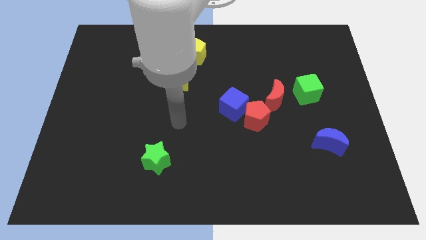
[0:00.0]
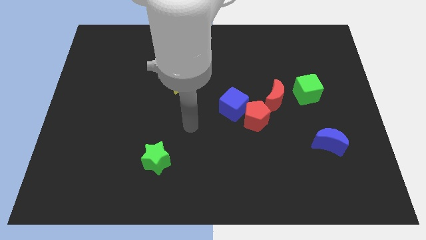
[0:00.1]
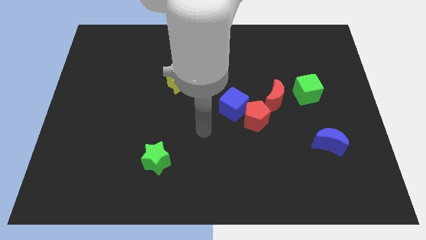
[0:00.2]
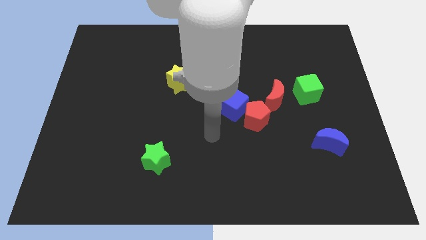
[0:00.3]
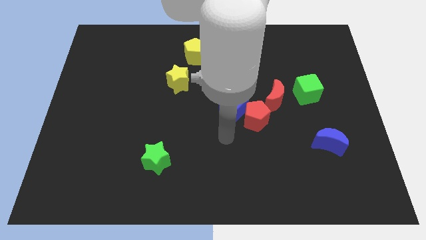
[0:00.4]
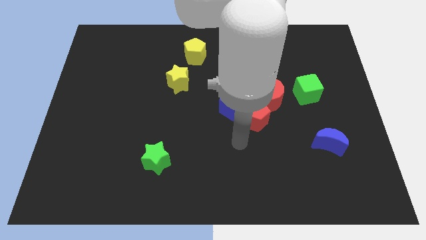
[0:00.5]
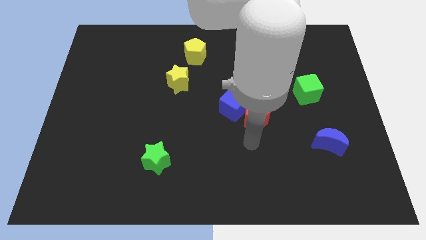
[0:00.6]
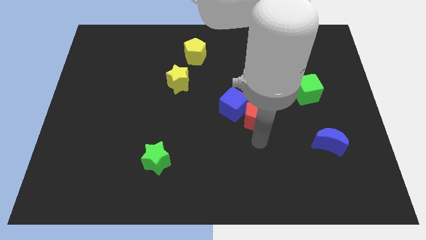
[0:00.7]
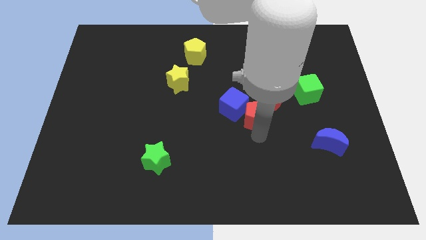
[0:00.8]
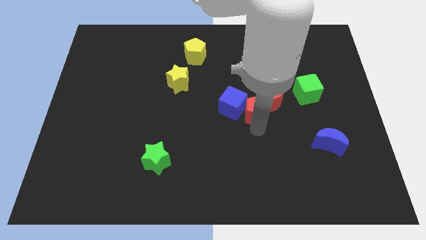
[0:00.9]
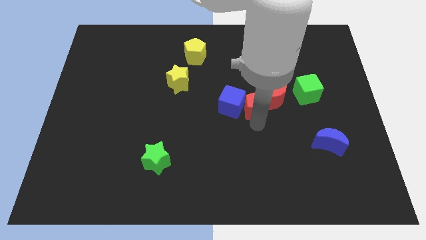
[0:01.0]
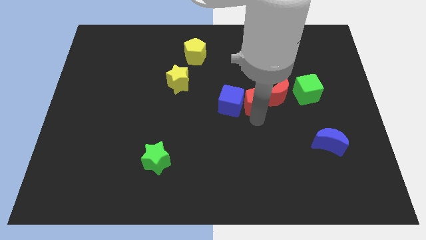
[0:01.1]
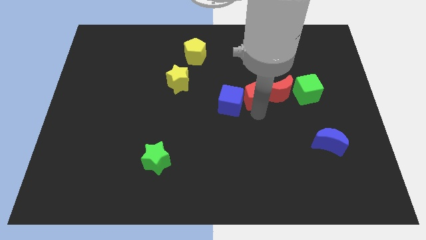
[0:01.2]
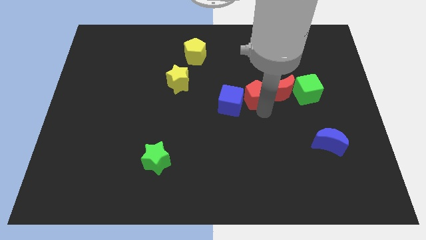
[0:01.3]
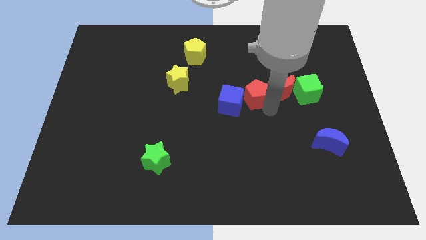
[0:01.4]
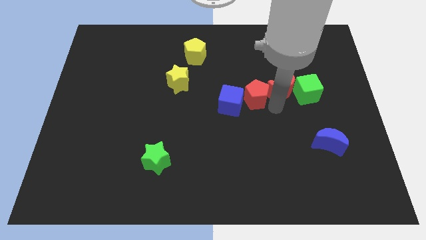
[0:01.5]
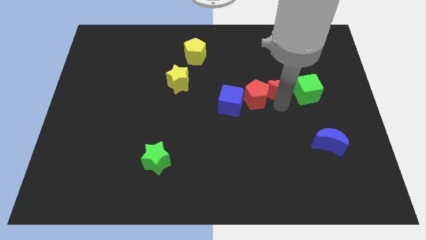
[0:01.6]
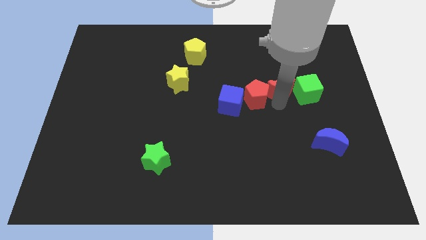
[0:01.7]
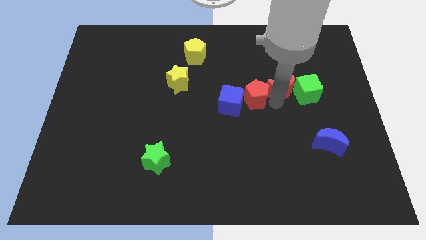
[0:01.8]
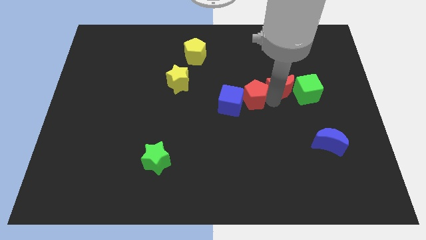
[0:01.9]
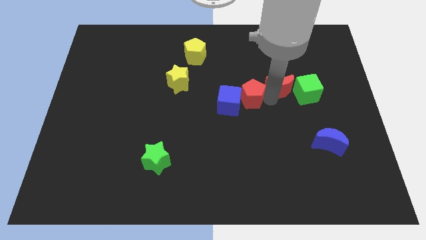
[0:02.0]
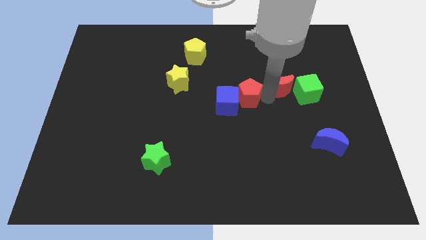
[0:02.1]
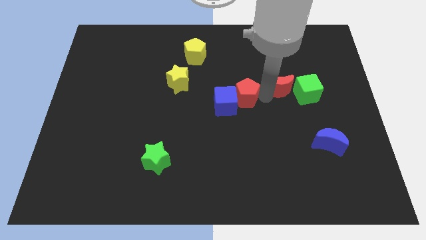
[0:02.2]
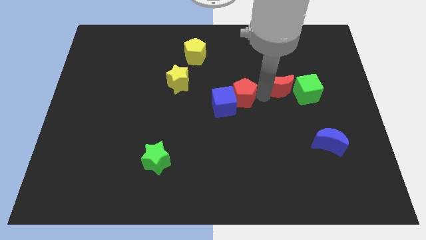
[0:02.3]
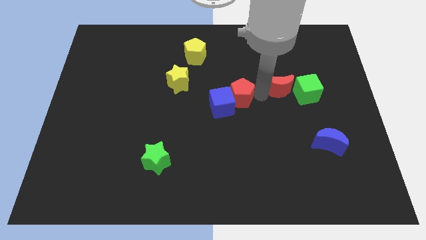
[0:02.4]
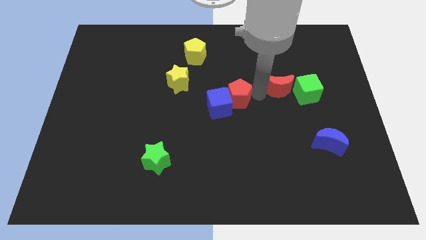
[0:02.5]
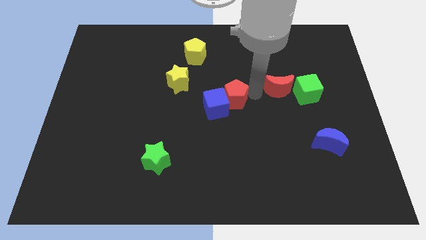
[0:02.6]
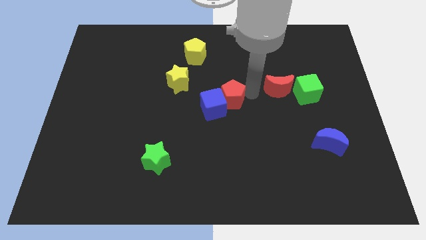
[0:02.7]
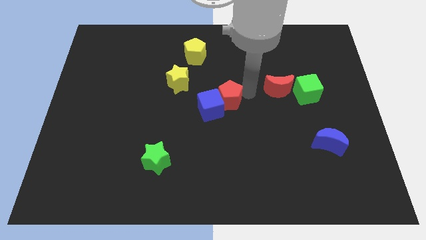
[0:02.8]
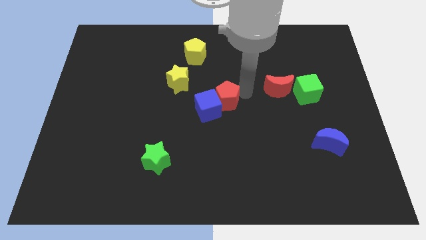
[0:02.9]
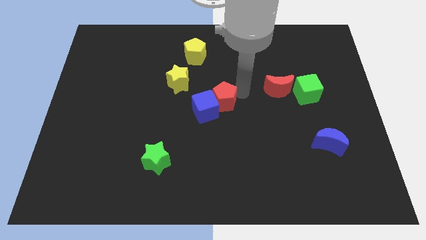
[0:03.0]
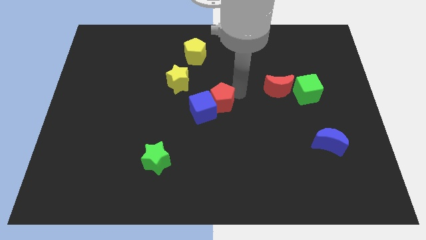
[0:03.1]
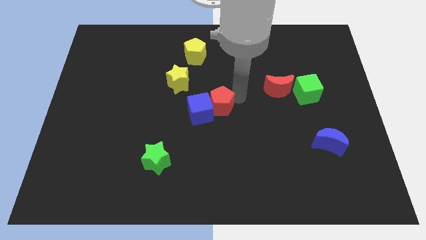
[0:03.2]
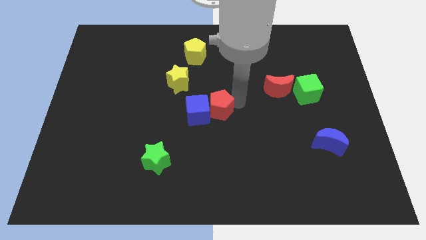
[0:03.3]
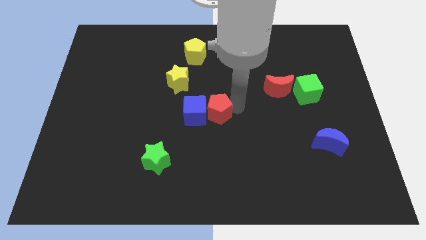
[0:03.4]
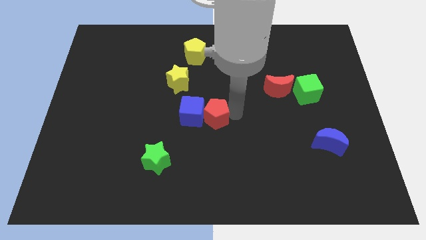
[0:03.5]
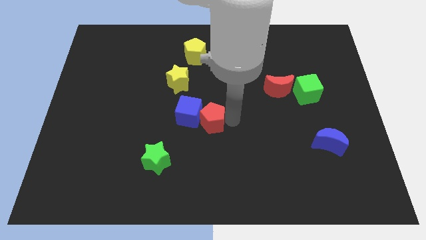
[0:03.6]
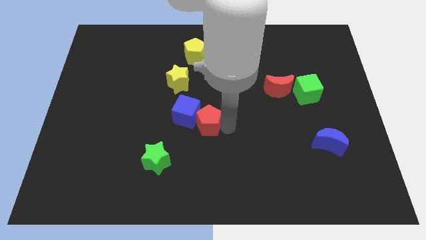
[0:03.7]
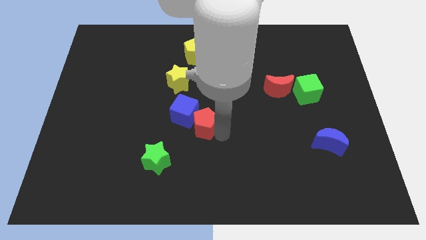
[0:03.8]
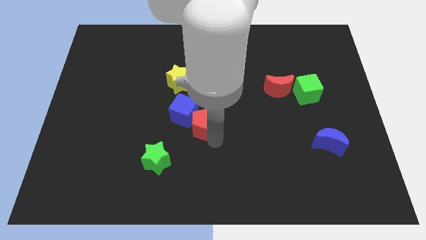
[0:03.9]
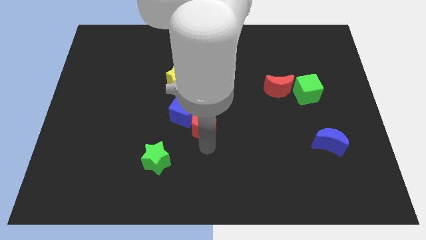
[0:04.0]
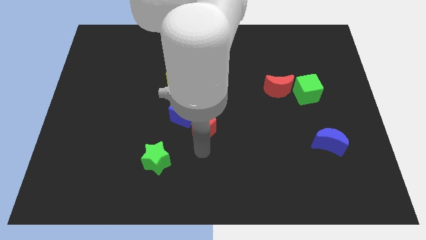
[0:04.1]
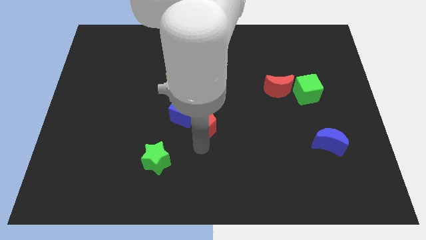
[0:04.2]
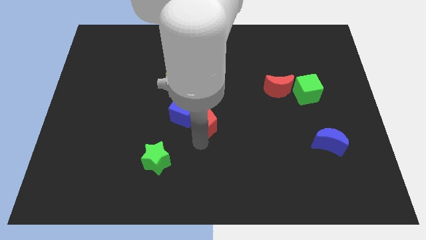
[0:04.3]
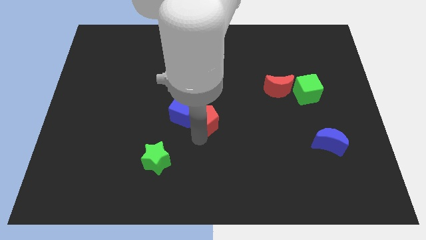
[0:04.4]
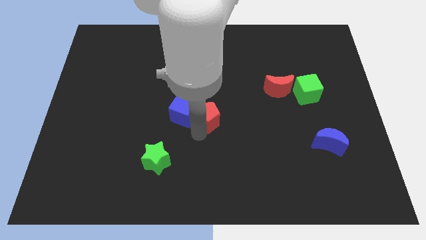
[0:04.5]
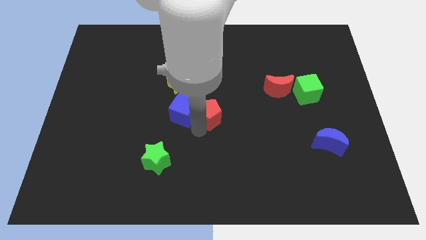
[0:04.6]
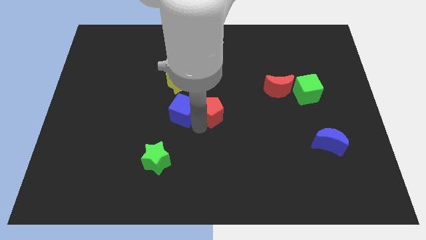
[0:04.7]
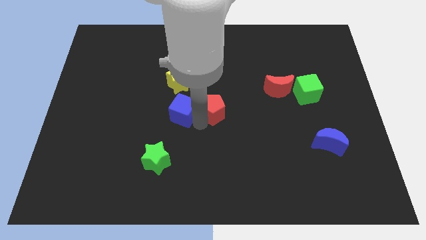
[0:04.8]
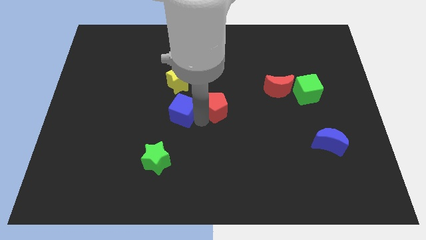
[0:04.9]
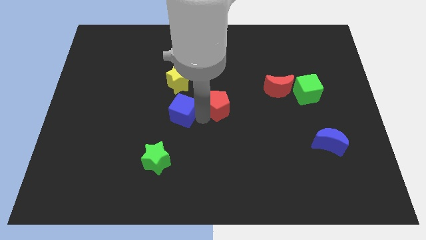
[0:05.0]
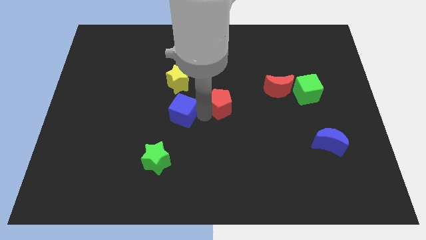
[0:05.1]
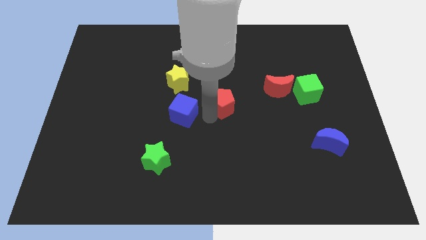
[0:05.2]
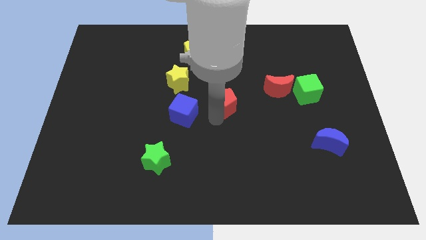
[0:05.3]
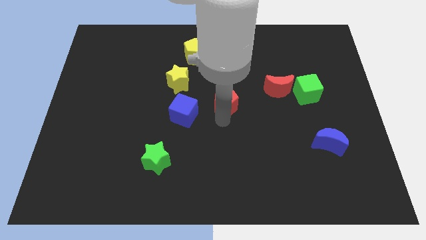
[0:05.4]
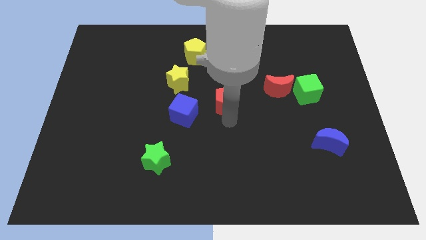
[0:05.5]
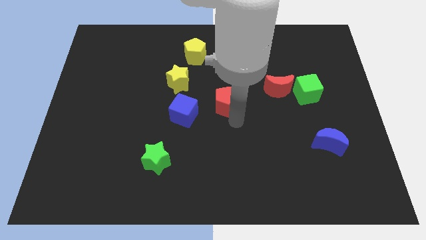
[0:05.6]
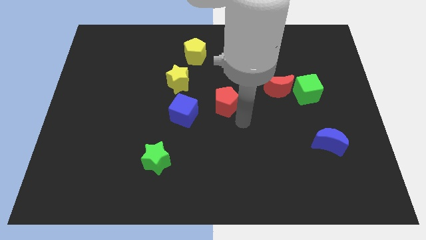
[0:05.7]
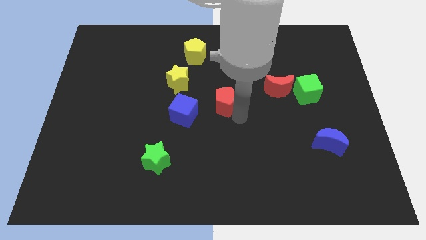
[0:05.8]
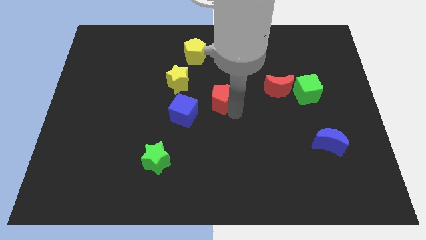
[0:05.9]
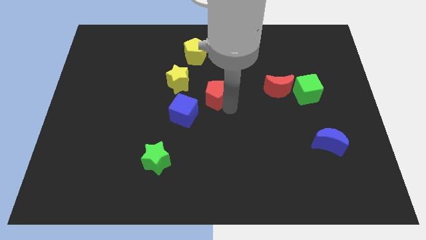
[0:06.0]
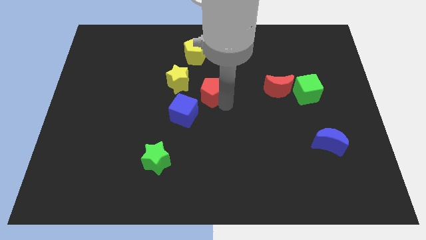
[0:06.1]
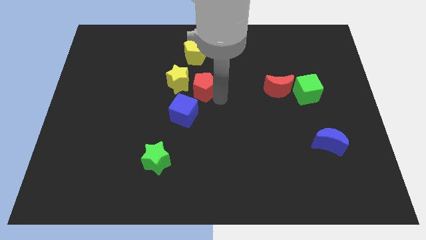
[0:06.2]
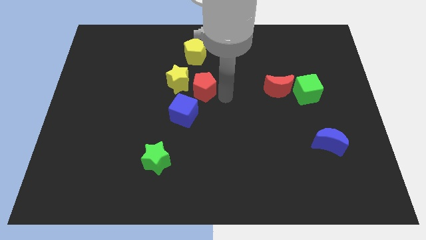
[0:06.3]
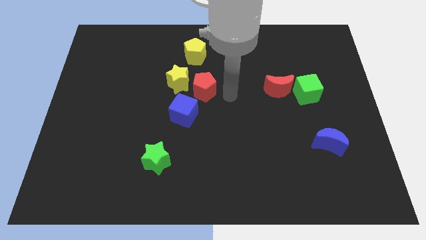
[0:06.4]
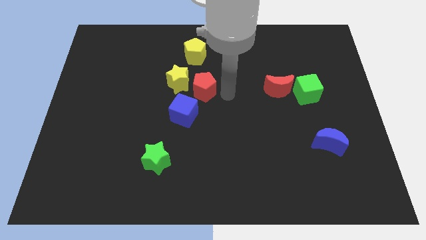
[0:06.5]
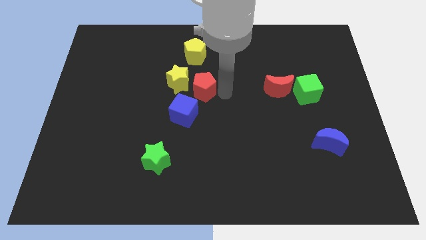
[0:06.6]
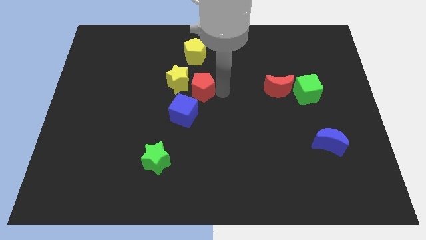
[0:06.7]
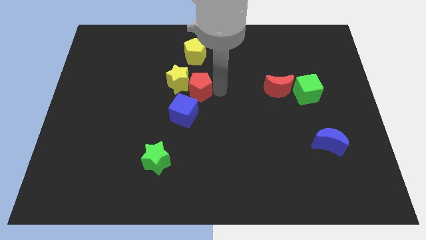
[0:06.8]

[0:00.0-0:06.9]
push the red pentagon close to the yellow star

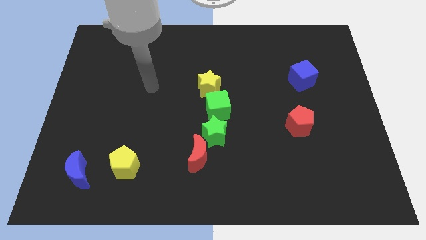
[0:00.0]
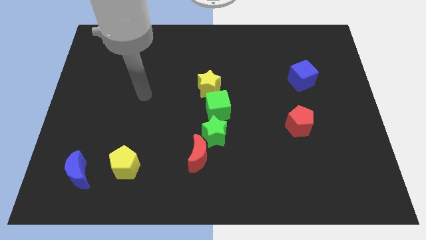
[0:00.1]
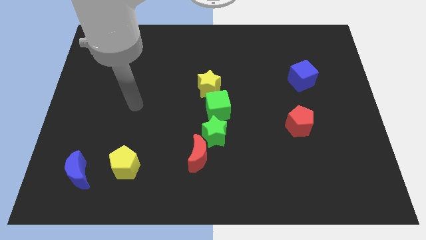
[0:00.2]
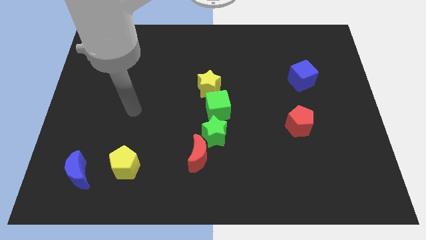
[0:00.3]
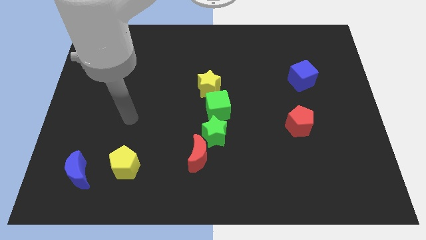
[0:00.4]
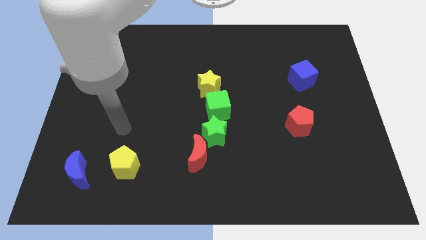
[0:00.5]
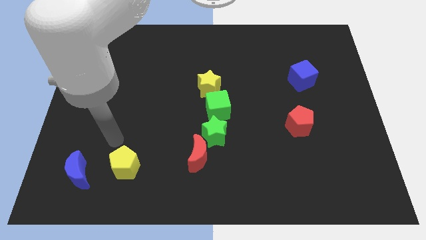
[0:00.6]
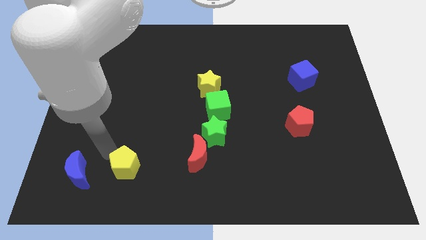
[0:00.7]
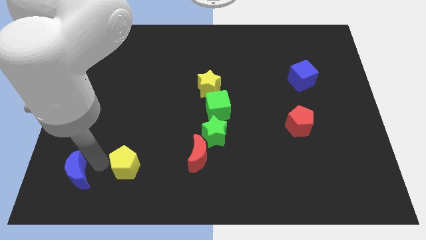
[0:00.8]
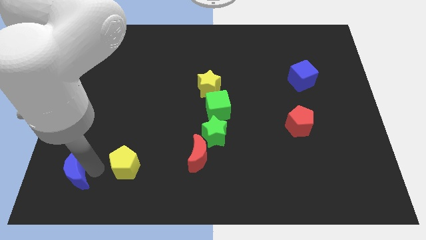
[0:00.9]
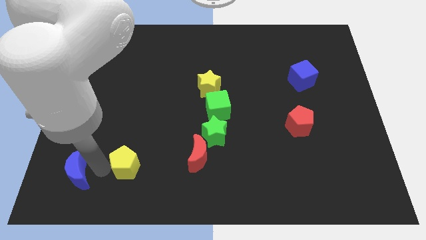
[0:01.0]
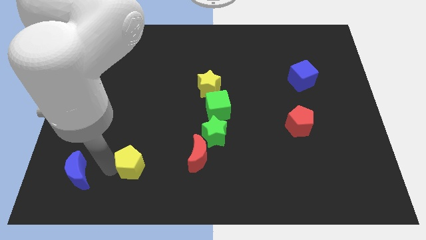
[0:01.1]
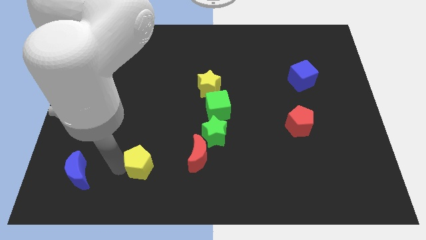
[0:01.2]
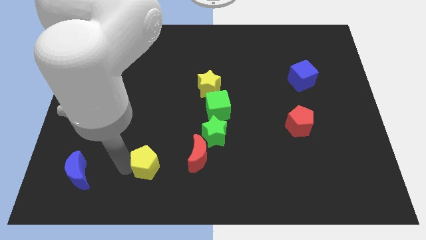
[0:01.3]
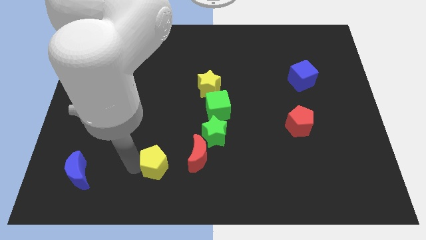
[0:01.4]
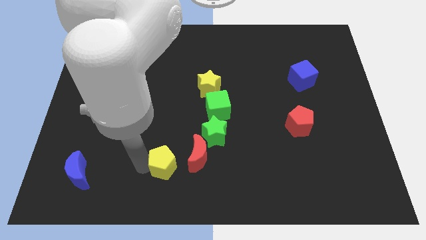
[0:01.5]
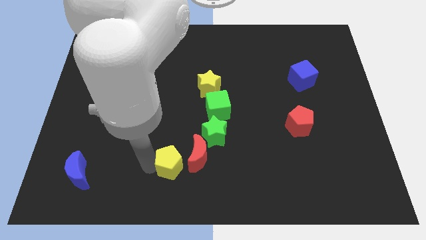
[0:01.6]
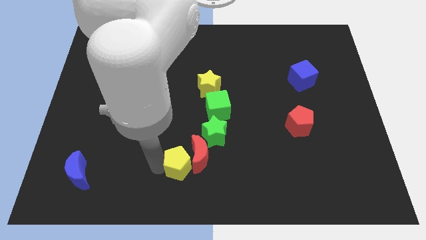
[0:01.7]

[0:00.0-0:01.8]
slide the yellow pentagon close to the red moon
